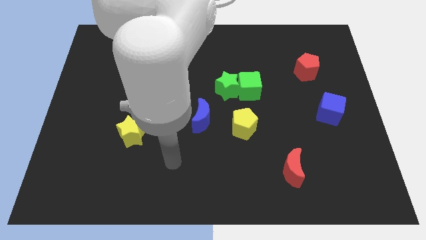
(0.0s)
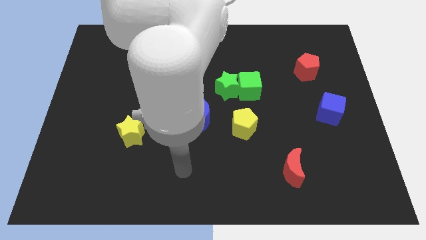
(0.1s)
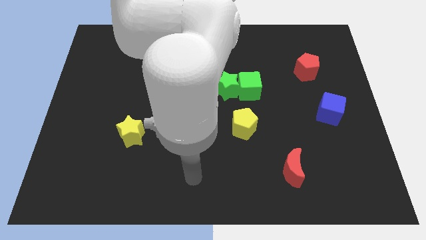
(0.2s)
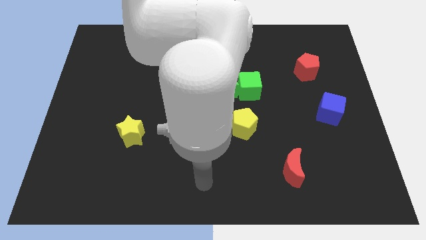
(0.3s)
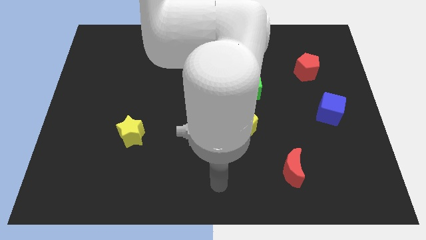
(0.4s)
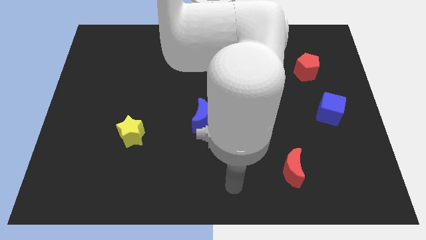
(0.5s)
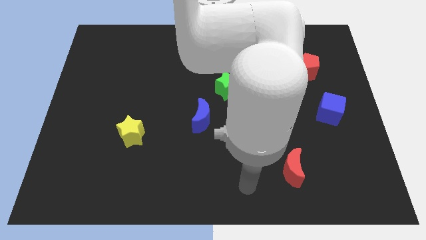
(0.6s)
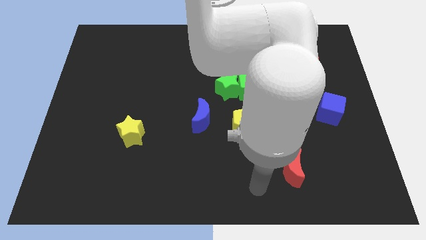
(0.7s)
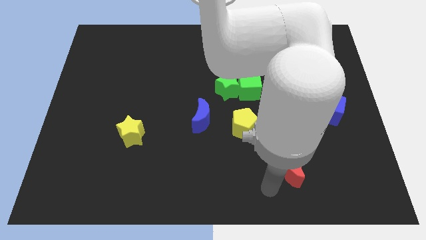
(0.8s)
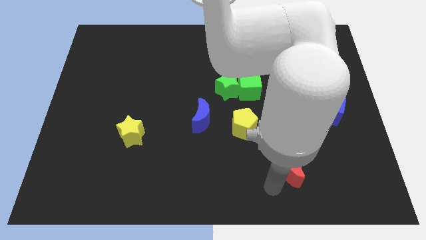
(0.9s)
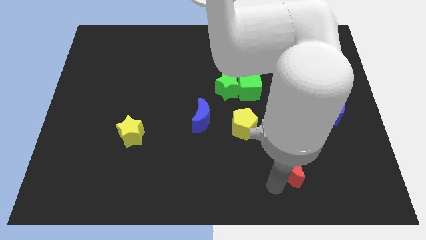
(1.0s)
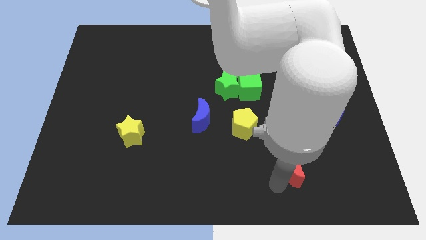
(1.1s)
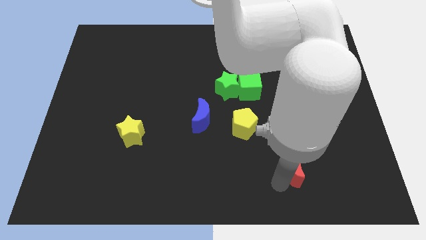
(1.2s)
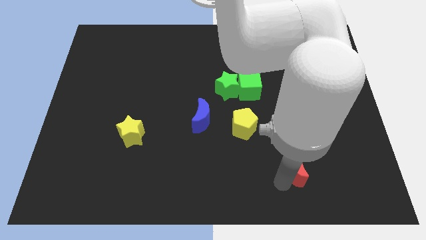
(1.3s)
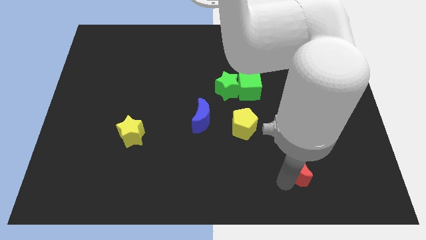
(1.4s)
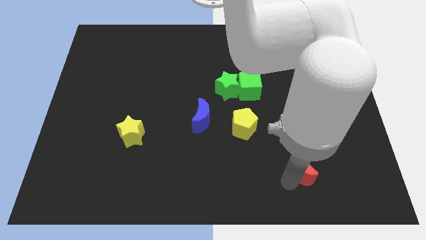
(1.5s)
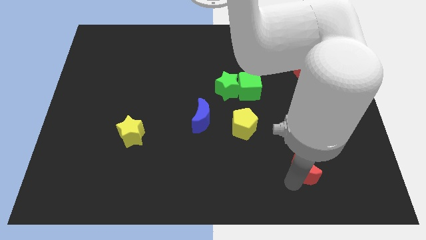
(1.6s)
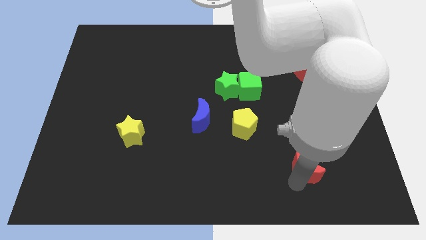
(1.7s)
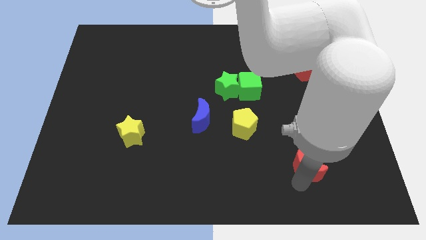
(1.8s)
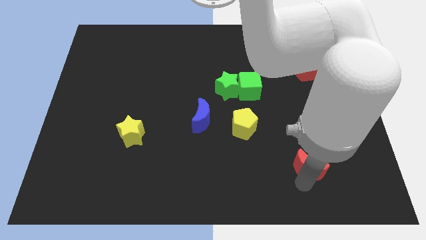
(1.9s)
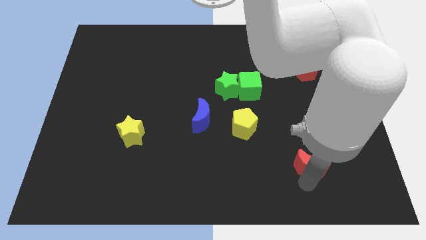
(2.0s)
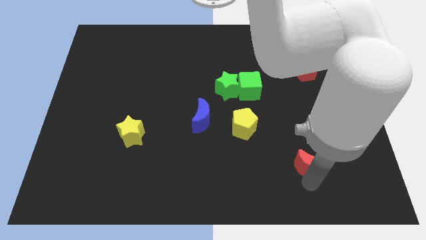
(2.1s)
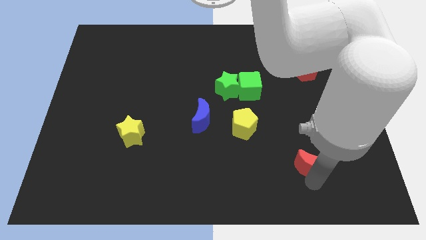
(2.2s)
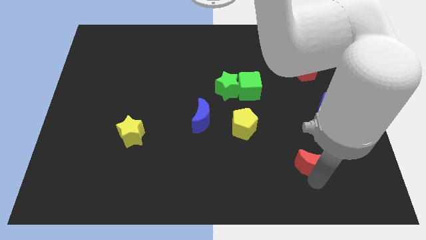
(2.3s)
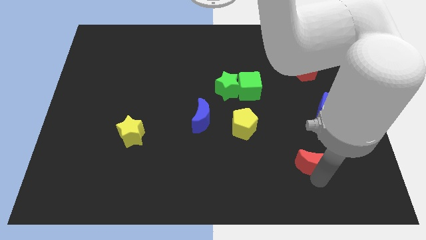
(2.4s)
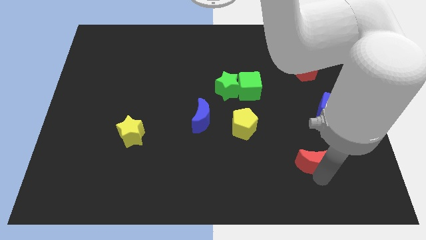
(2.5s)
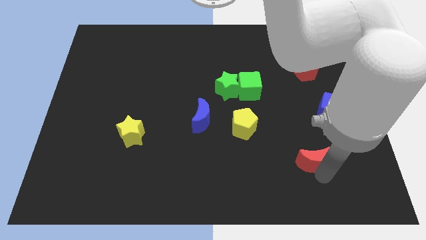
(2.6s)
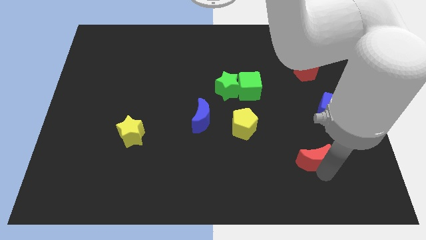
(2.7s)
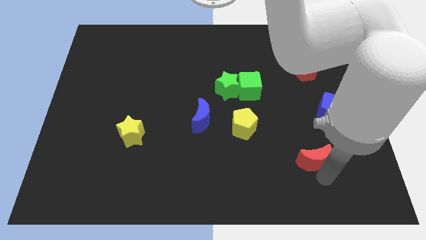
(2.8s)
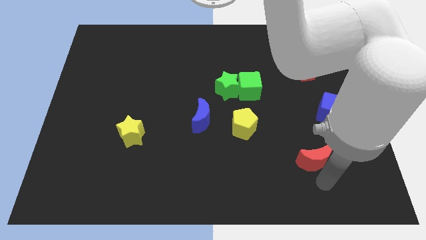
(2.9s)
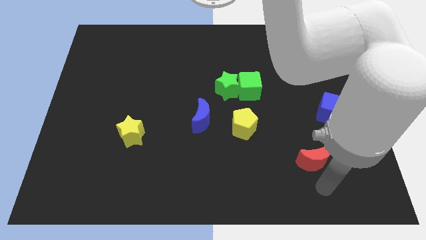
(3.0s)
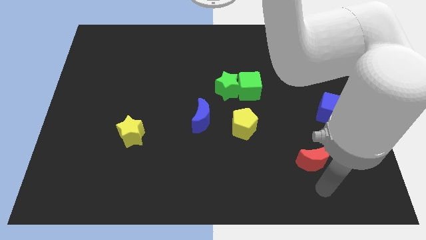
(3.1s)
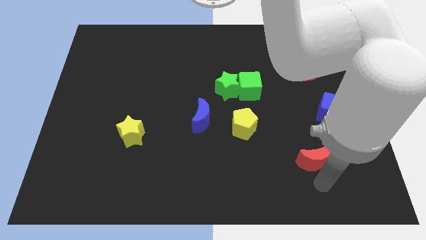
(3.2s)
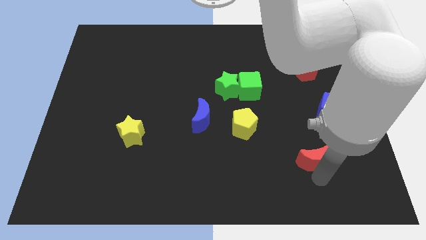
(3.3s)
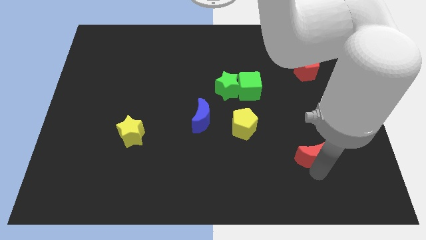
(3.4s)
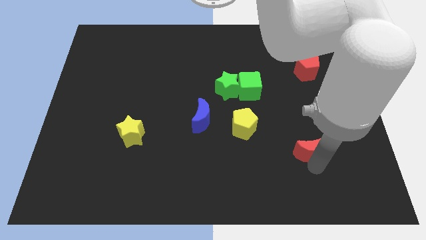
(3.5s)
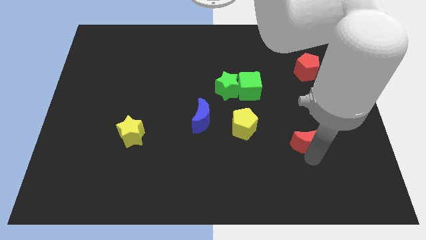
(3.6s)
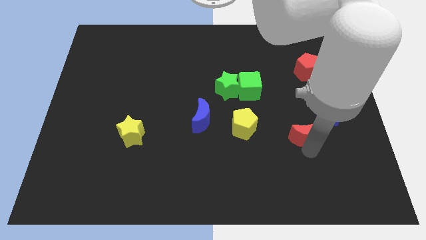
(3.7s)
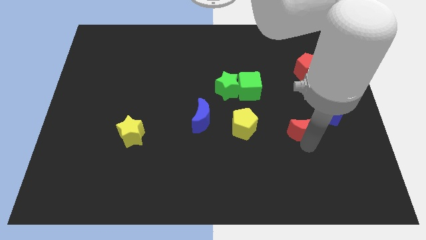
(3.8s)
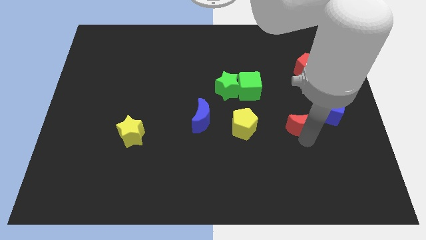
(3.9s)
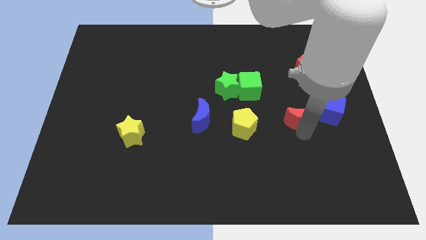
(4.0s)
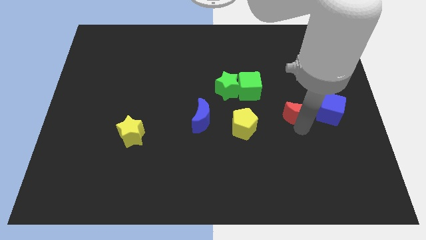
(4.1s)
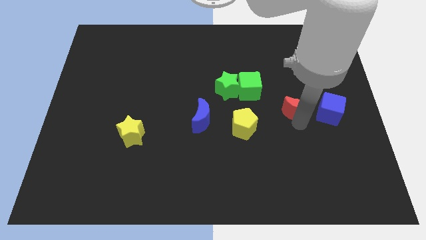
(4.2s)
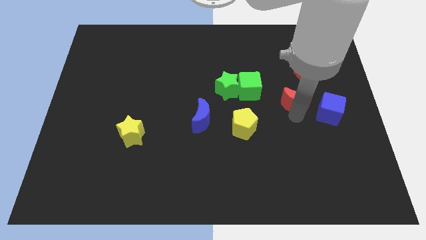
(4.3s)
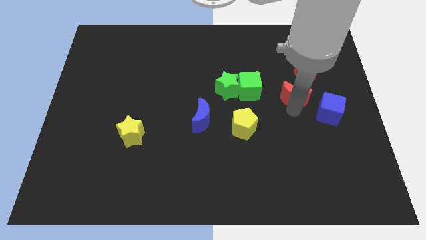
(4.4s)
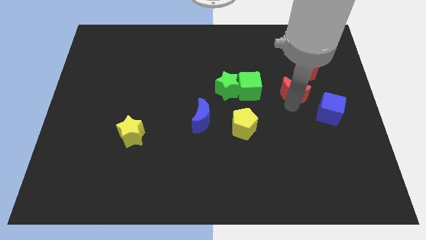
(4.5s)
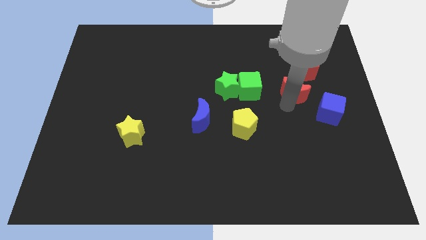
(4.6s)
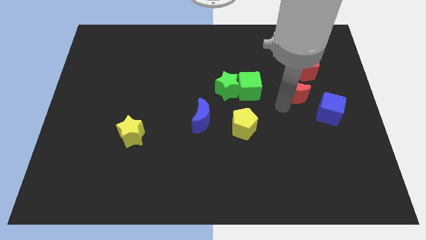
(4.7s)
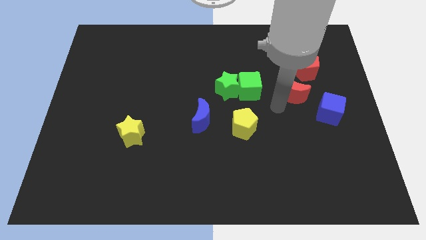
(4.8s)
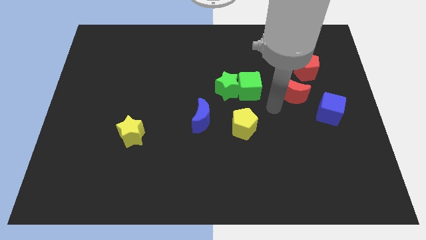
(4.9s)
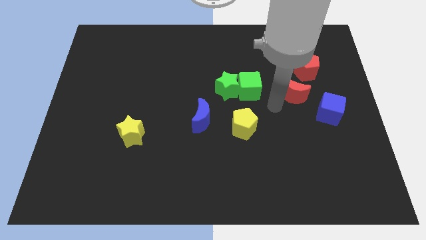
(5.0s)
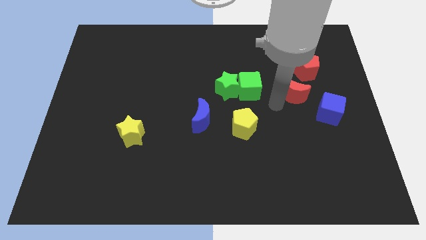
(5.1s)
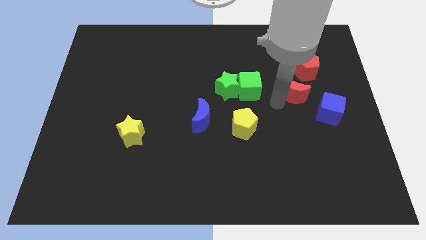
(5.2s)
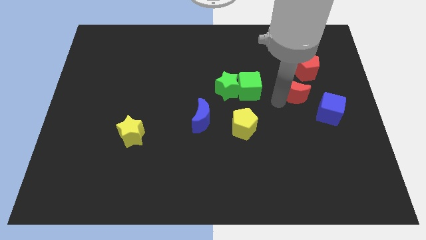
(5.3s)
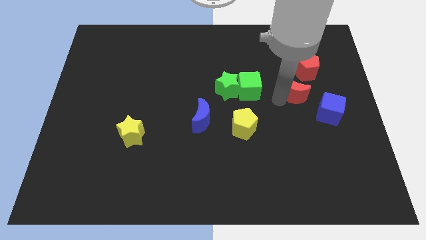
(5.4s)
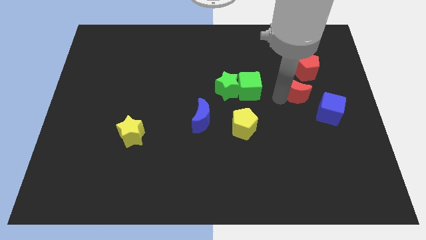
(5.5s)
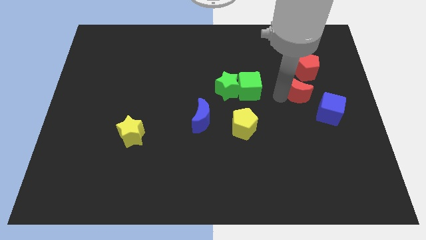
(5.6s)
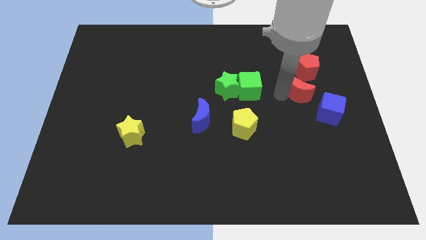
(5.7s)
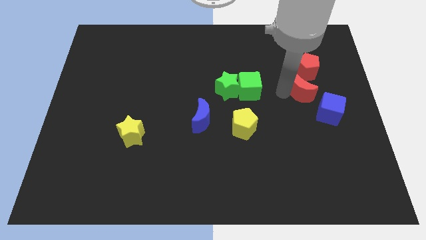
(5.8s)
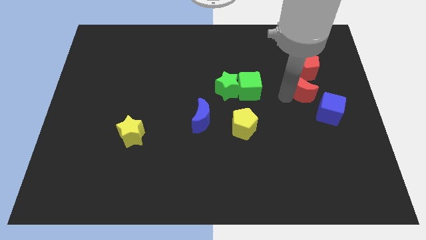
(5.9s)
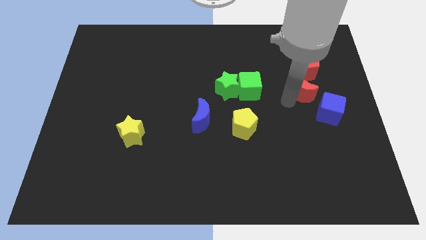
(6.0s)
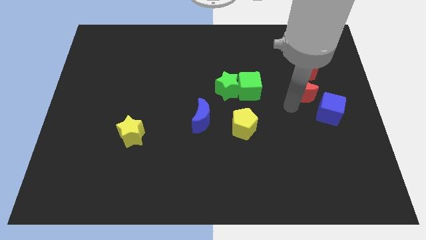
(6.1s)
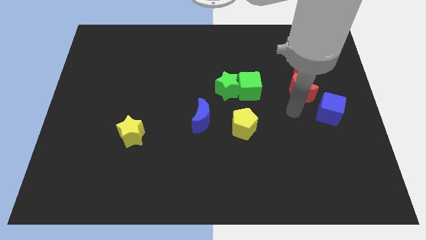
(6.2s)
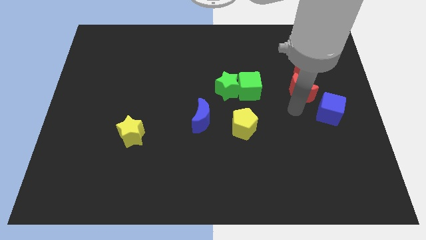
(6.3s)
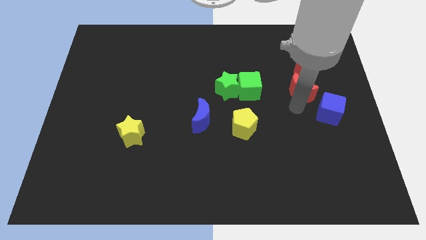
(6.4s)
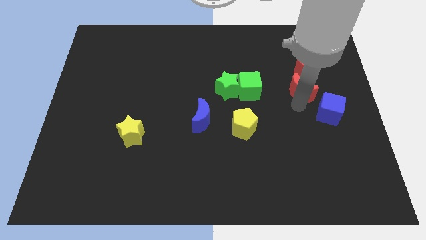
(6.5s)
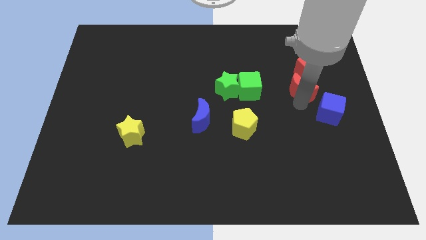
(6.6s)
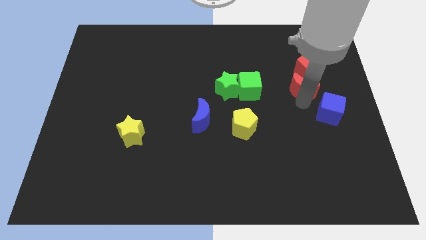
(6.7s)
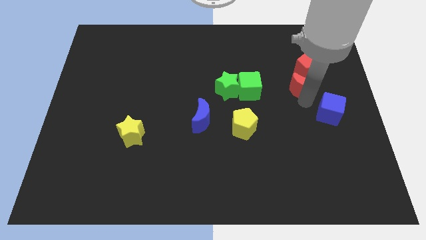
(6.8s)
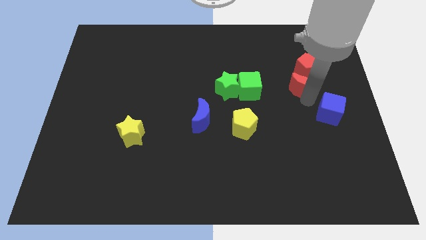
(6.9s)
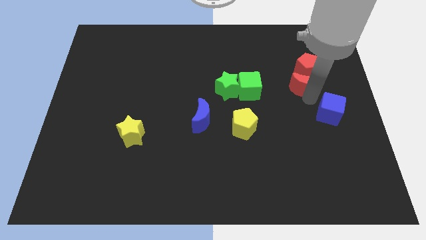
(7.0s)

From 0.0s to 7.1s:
move the red moon close to the red pentagon

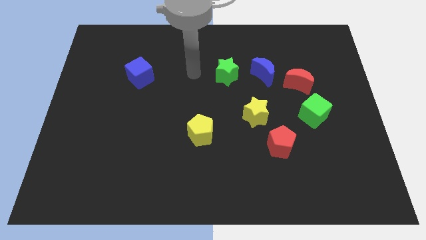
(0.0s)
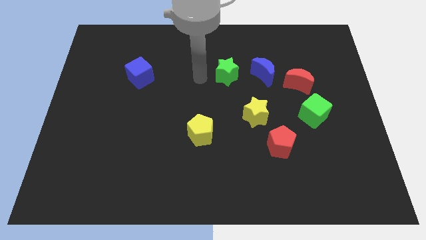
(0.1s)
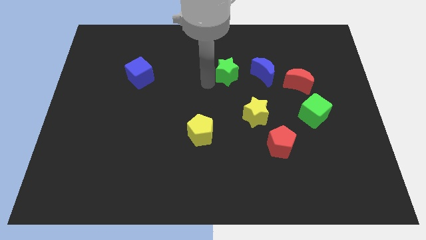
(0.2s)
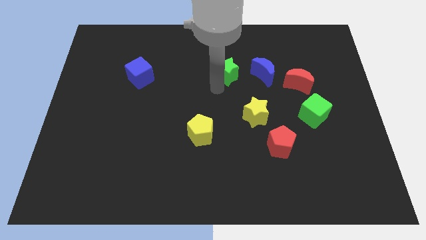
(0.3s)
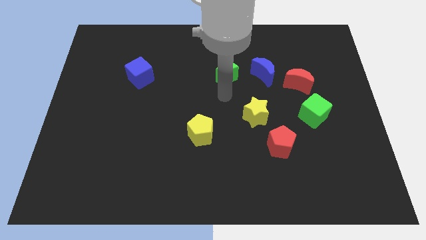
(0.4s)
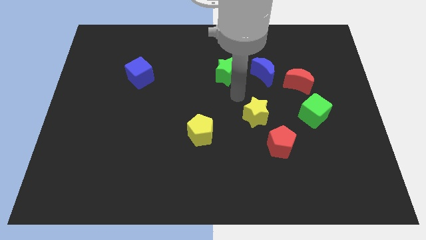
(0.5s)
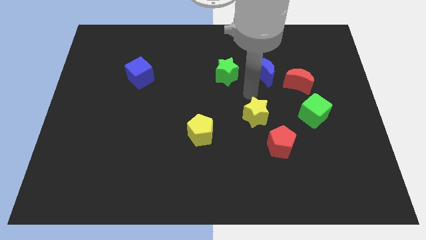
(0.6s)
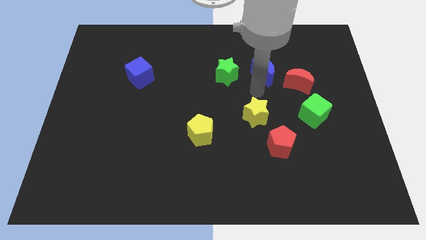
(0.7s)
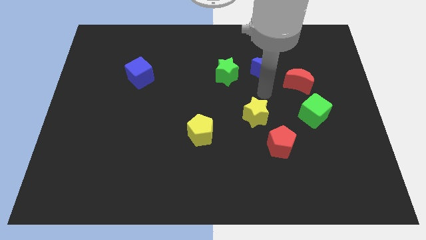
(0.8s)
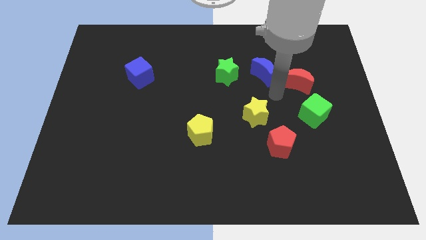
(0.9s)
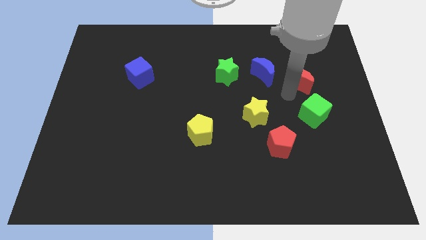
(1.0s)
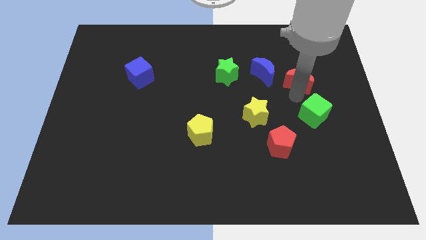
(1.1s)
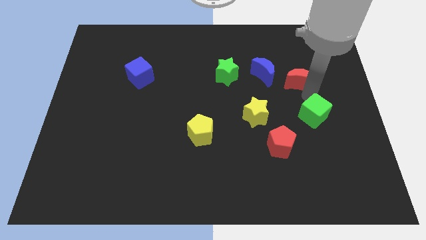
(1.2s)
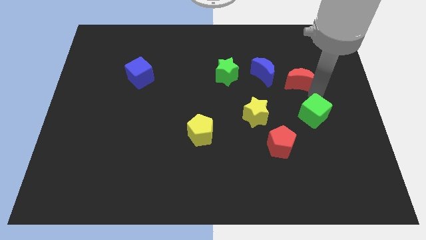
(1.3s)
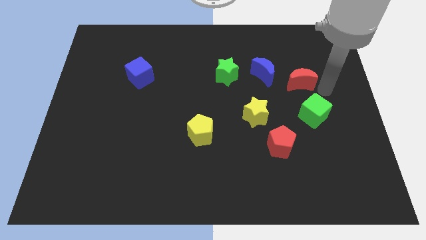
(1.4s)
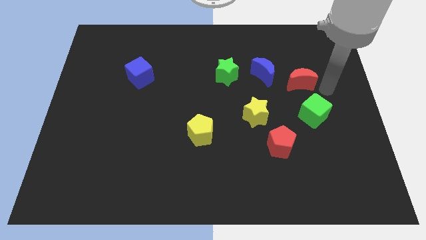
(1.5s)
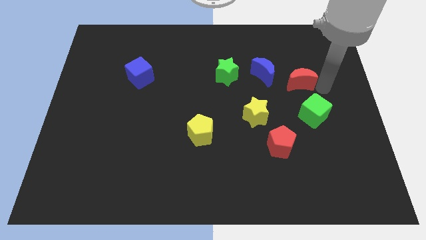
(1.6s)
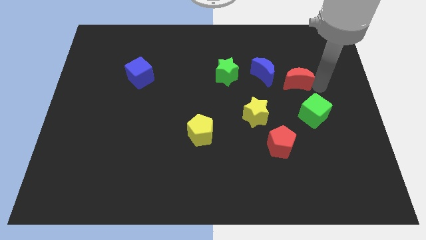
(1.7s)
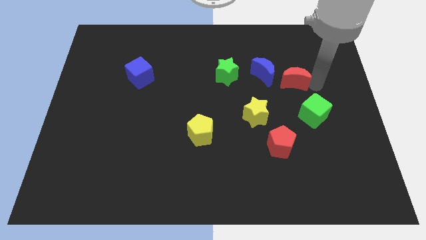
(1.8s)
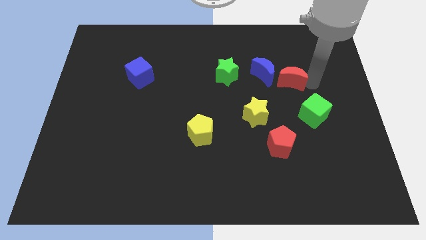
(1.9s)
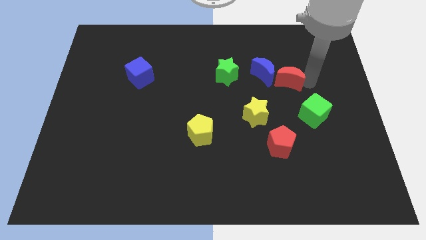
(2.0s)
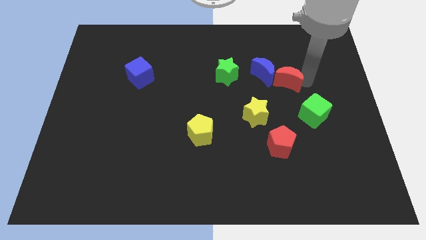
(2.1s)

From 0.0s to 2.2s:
slide the red moon towards the blue moon
